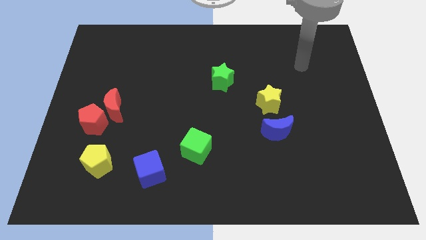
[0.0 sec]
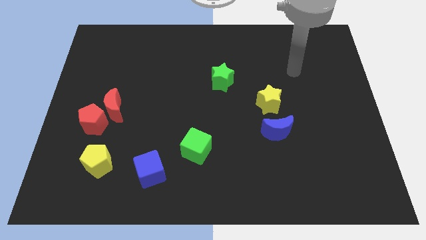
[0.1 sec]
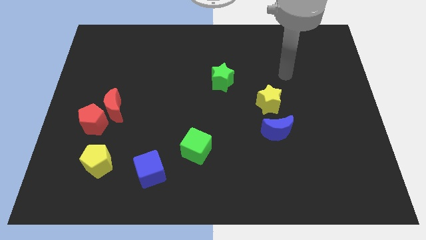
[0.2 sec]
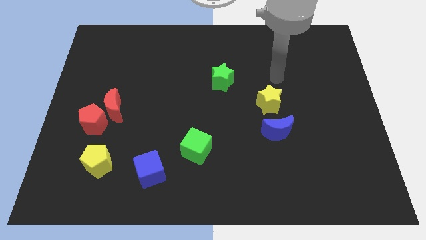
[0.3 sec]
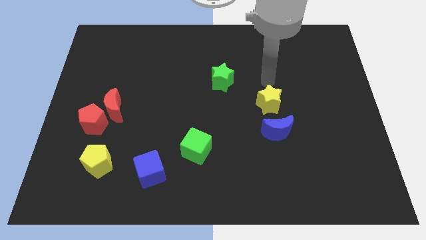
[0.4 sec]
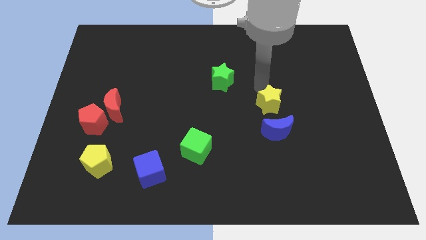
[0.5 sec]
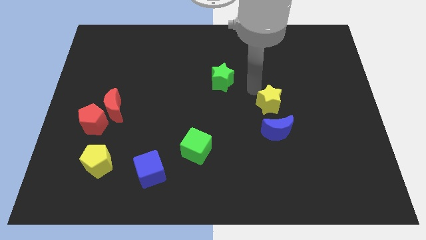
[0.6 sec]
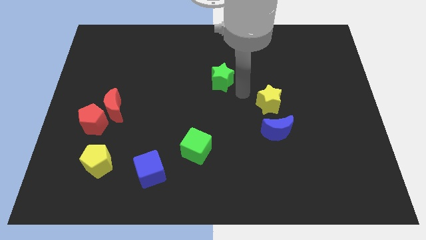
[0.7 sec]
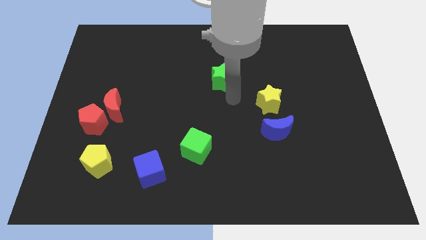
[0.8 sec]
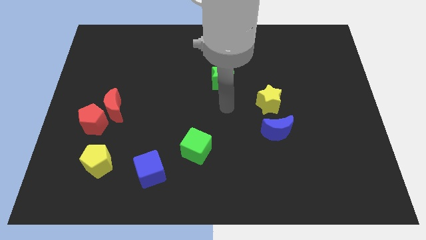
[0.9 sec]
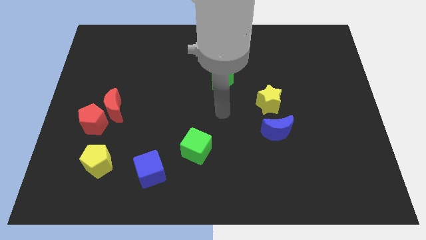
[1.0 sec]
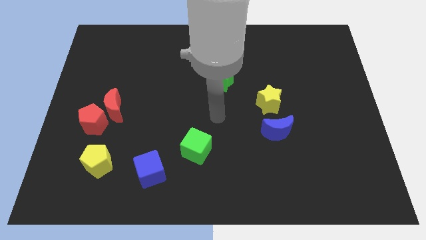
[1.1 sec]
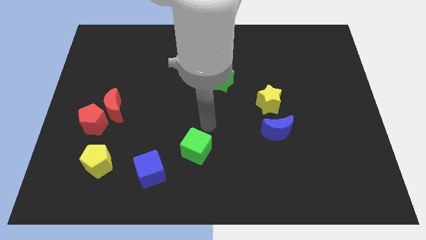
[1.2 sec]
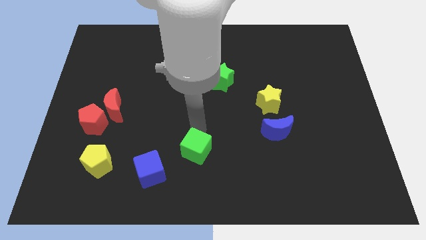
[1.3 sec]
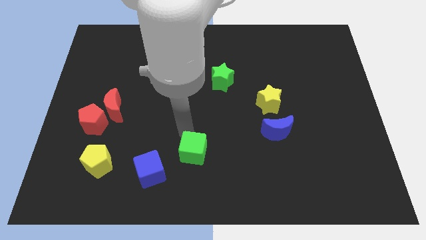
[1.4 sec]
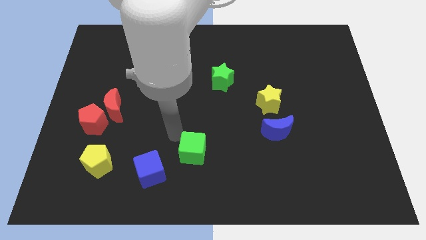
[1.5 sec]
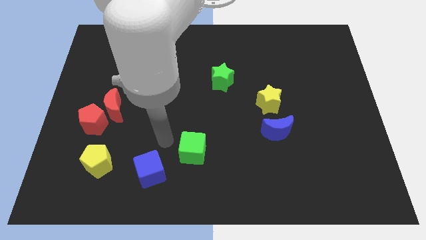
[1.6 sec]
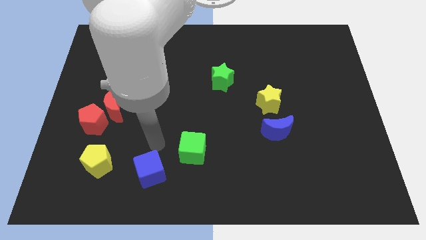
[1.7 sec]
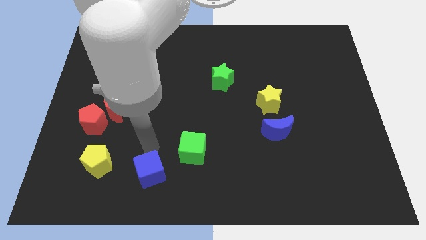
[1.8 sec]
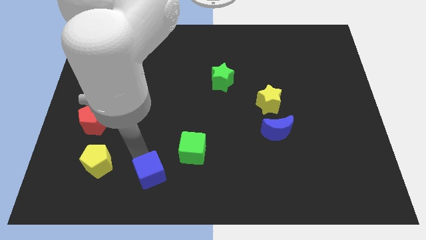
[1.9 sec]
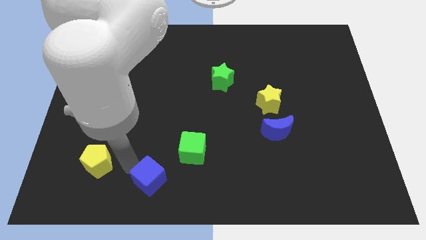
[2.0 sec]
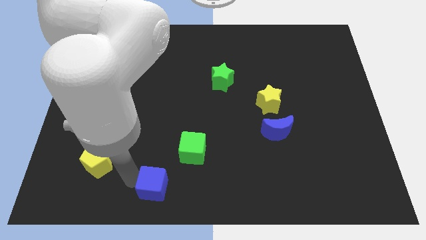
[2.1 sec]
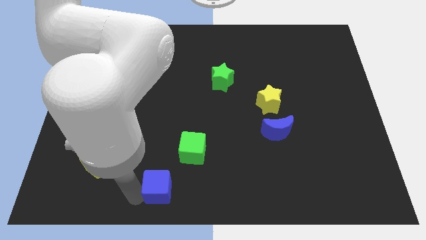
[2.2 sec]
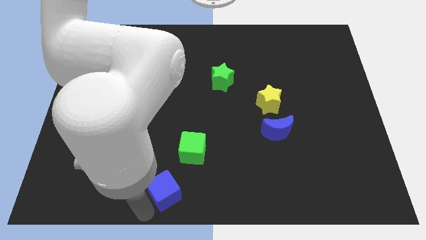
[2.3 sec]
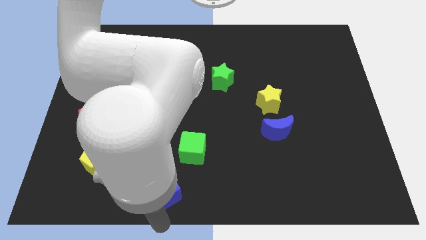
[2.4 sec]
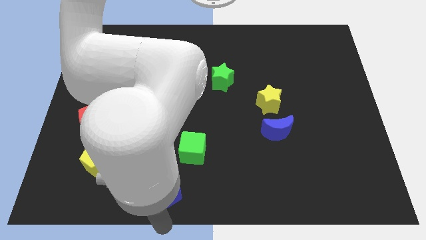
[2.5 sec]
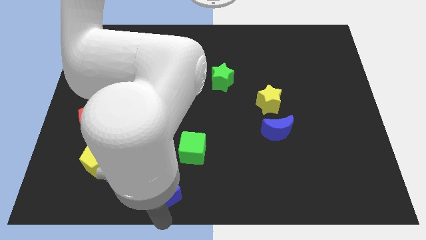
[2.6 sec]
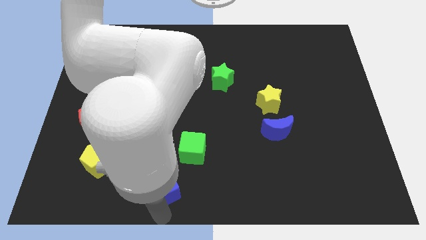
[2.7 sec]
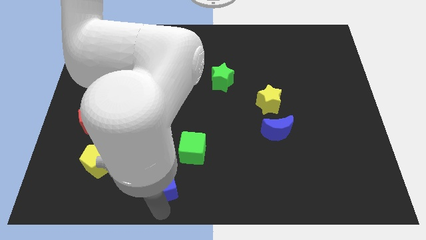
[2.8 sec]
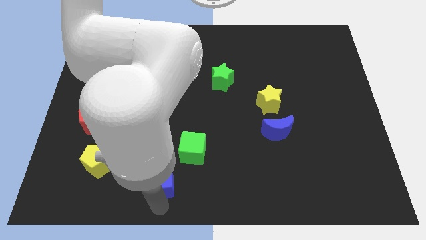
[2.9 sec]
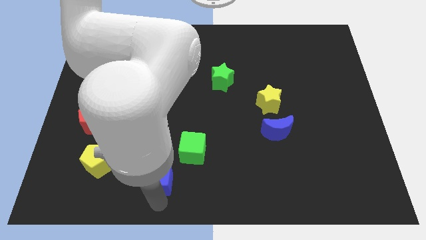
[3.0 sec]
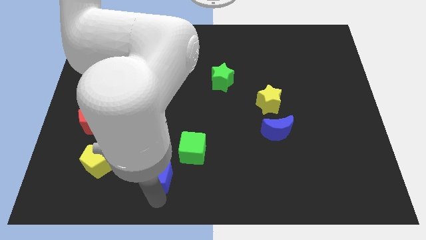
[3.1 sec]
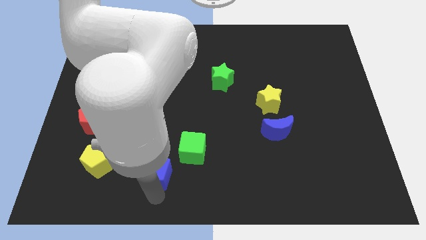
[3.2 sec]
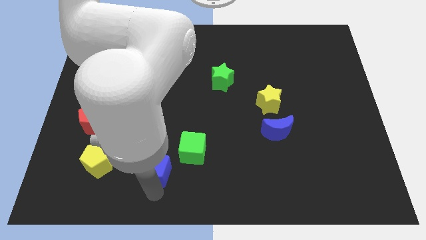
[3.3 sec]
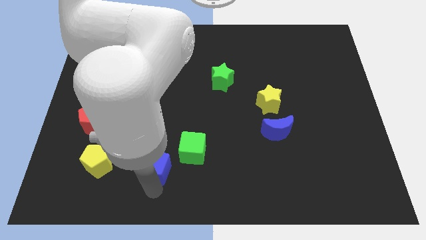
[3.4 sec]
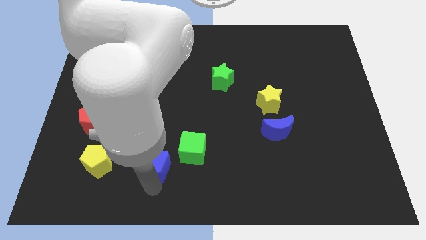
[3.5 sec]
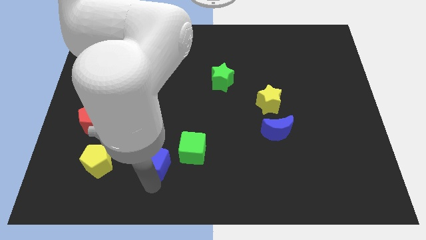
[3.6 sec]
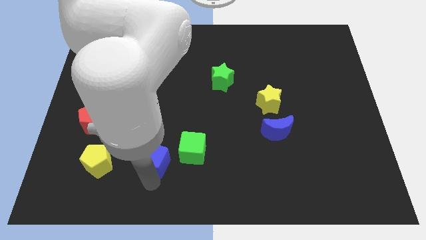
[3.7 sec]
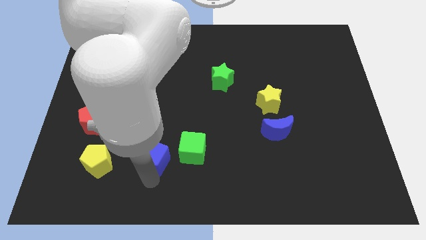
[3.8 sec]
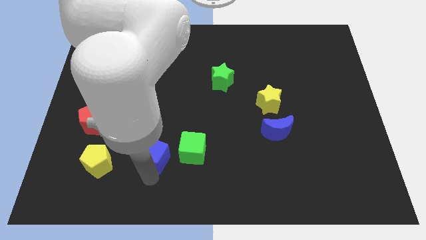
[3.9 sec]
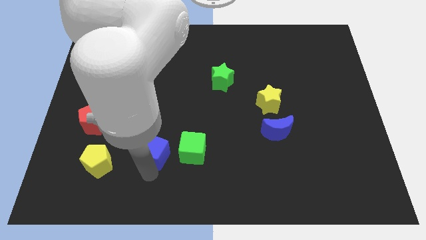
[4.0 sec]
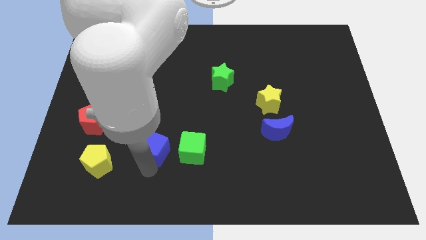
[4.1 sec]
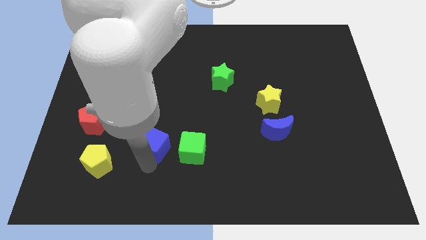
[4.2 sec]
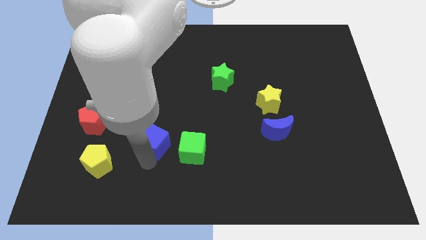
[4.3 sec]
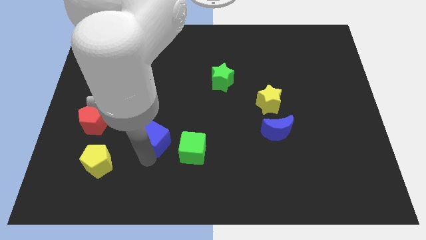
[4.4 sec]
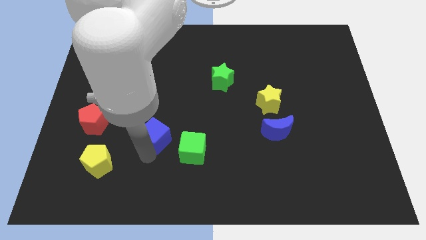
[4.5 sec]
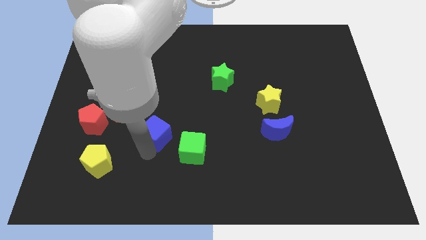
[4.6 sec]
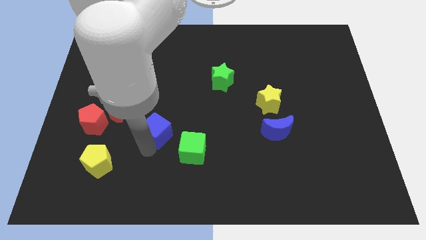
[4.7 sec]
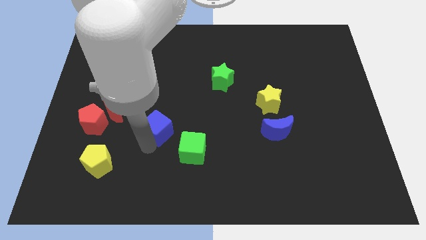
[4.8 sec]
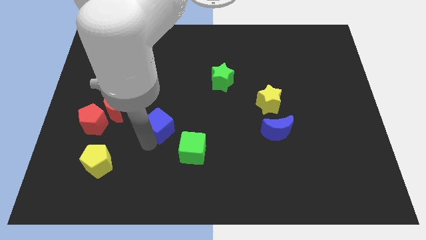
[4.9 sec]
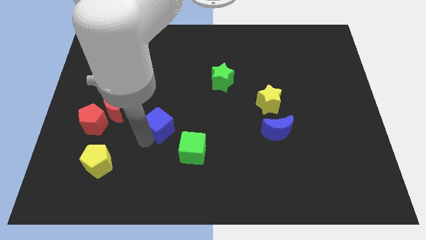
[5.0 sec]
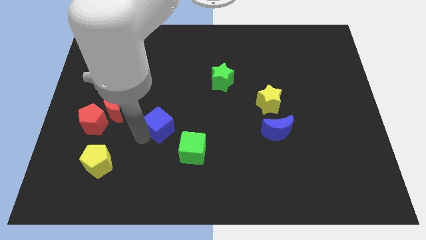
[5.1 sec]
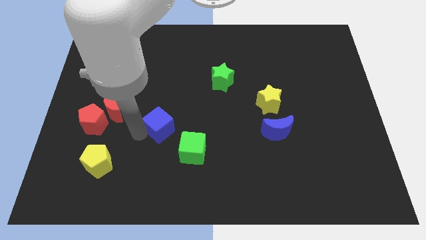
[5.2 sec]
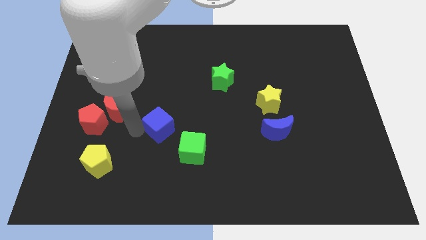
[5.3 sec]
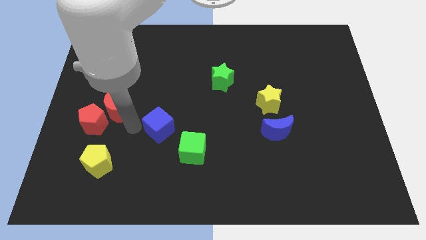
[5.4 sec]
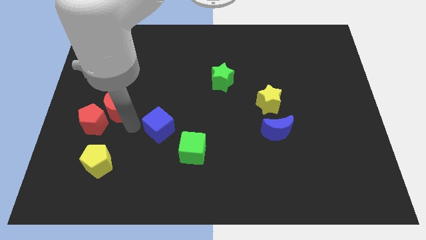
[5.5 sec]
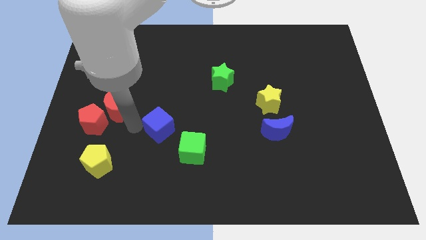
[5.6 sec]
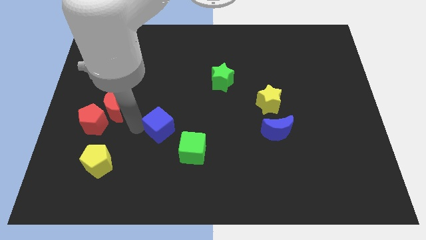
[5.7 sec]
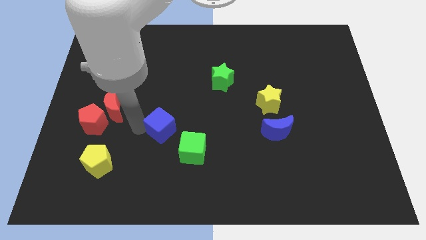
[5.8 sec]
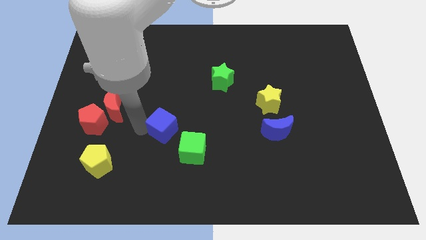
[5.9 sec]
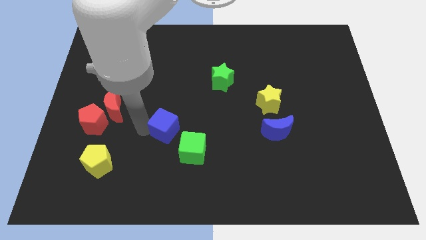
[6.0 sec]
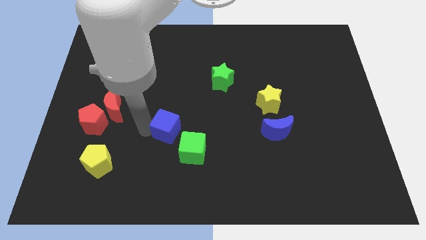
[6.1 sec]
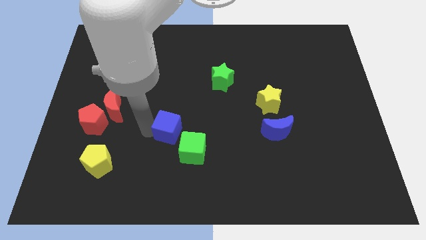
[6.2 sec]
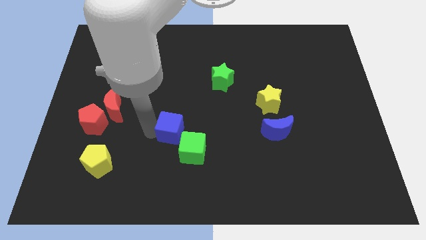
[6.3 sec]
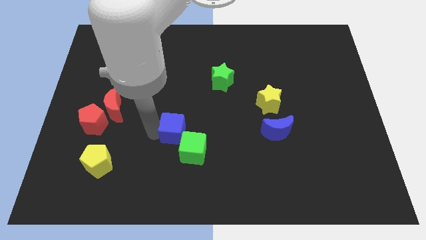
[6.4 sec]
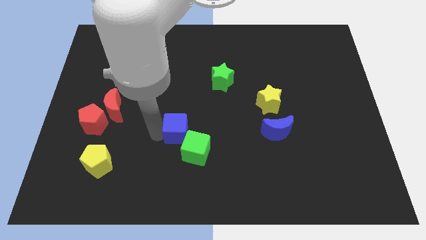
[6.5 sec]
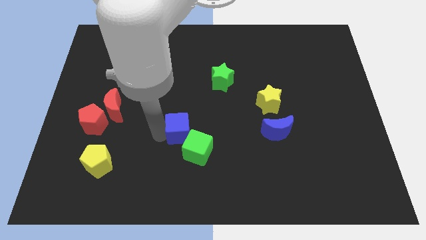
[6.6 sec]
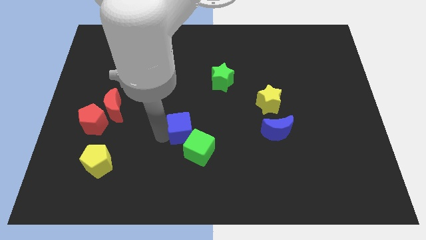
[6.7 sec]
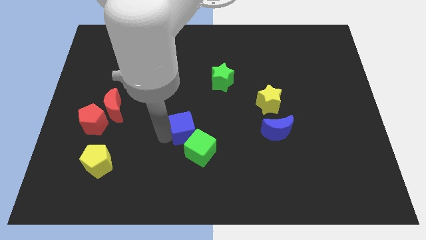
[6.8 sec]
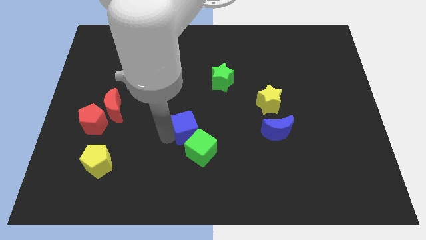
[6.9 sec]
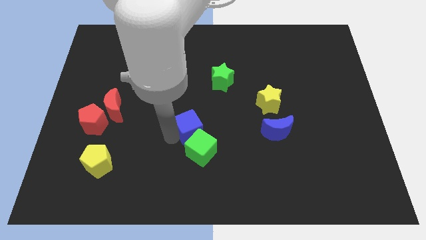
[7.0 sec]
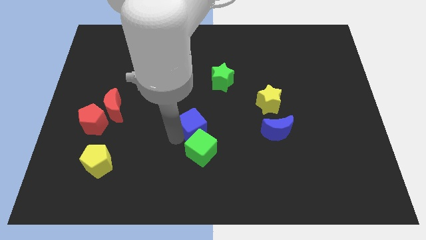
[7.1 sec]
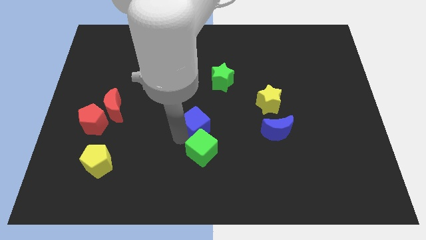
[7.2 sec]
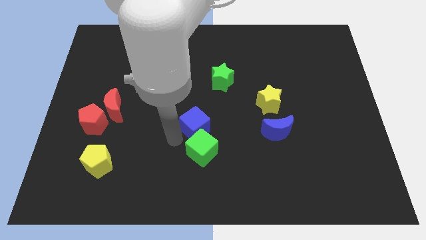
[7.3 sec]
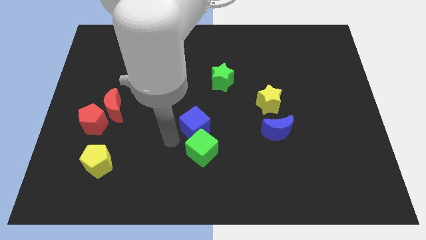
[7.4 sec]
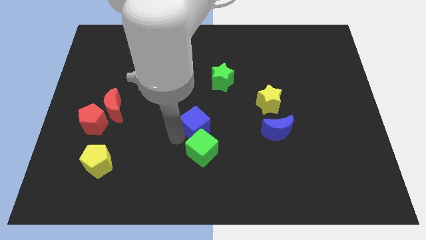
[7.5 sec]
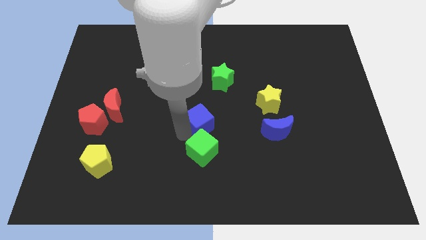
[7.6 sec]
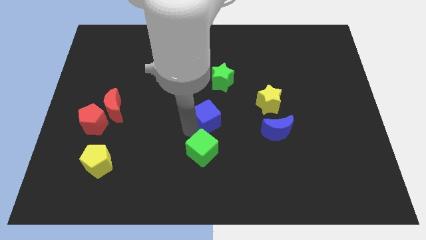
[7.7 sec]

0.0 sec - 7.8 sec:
put the blue cube to the bottom side of the green star
